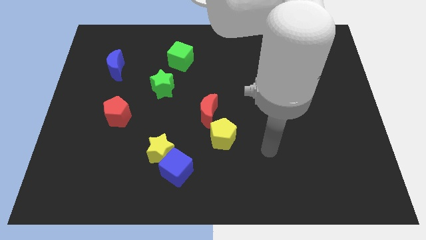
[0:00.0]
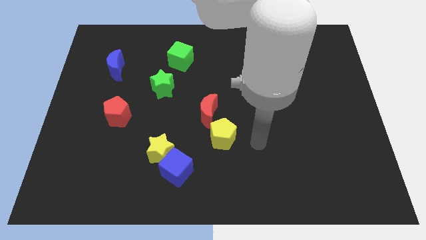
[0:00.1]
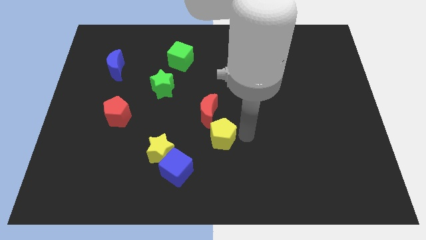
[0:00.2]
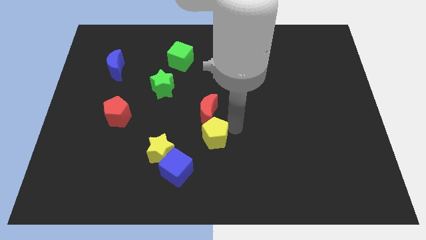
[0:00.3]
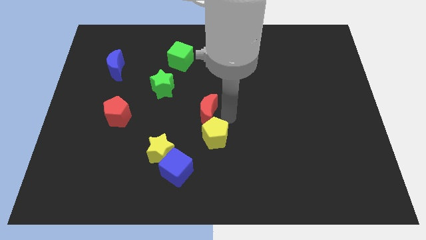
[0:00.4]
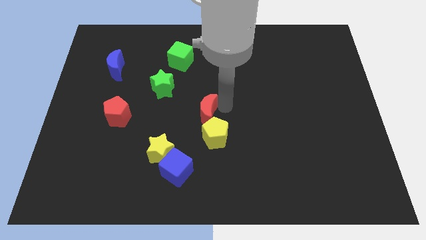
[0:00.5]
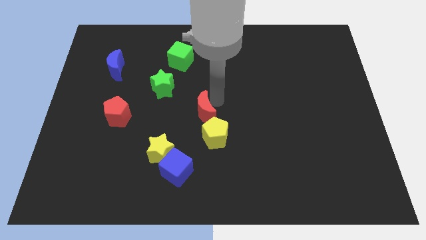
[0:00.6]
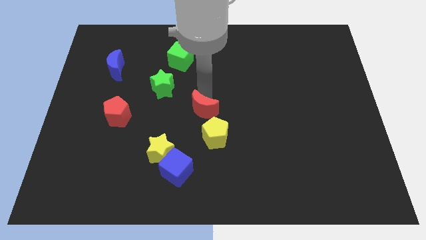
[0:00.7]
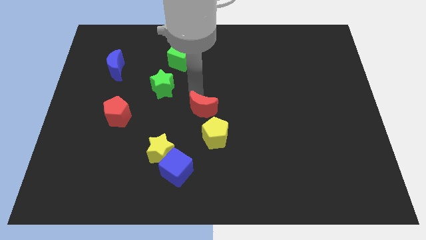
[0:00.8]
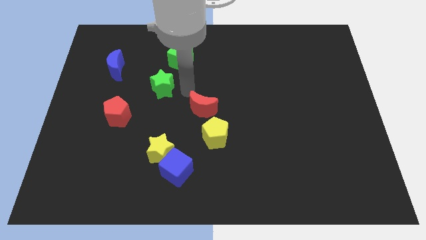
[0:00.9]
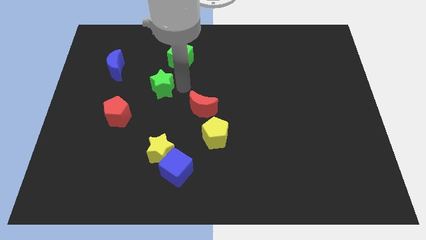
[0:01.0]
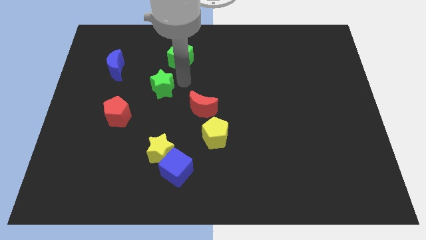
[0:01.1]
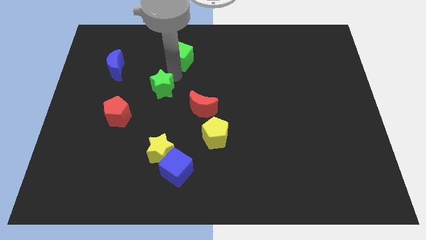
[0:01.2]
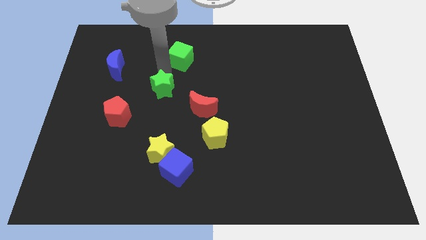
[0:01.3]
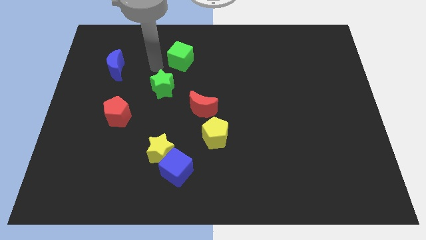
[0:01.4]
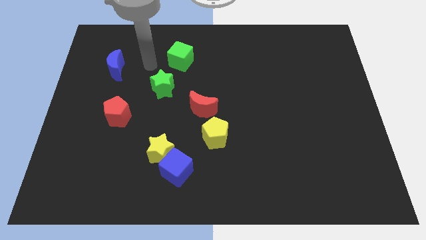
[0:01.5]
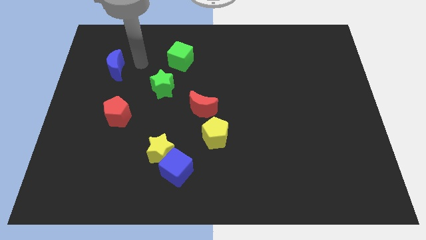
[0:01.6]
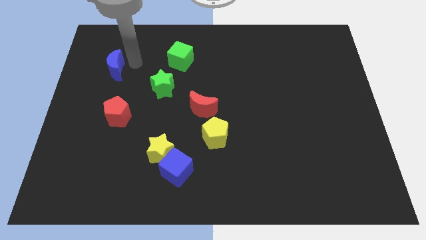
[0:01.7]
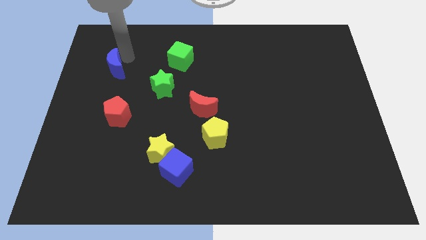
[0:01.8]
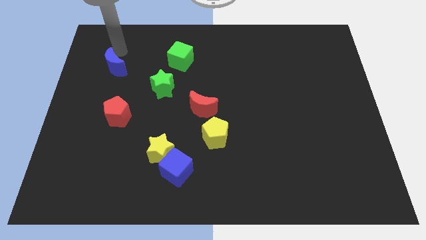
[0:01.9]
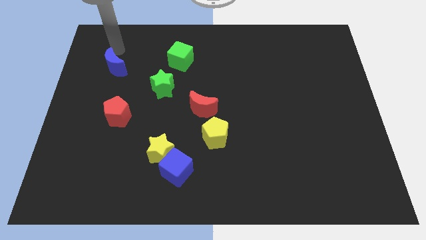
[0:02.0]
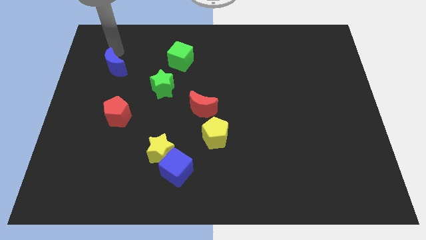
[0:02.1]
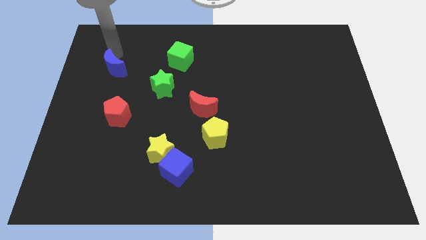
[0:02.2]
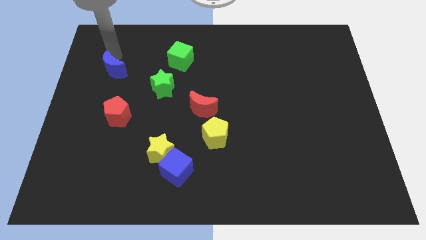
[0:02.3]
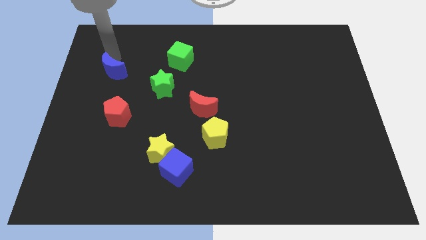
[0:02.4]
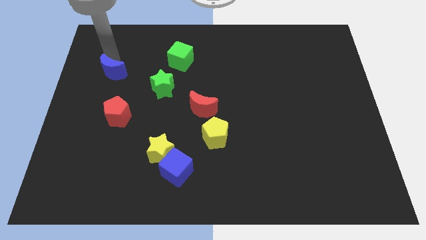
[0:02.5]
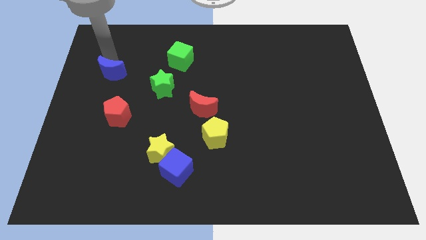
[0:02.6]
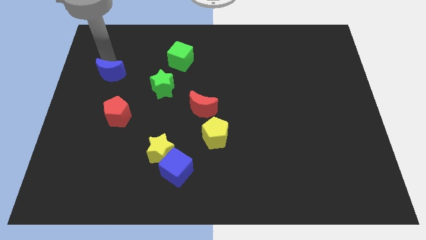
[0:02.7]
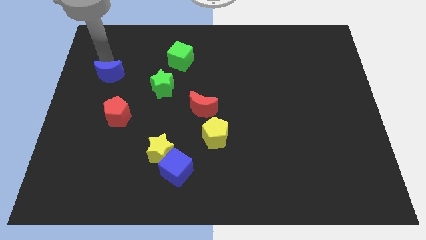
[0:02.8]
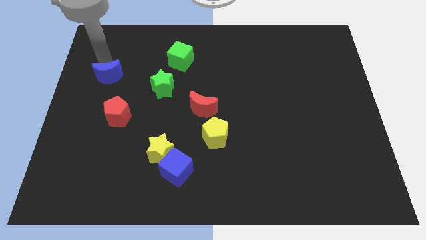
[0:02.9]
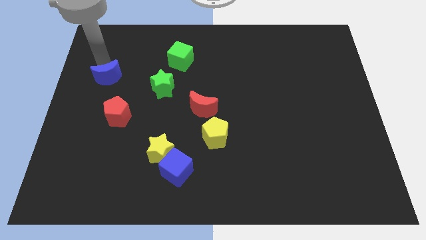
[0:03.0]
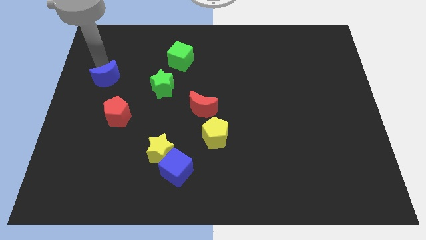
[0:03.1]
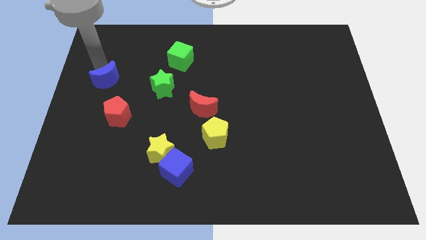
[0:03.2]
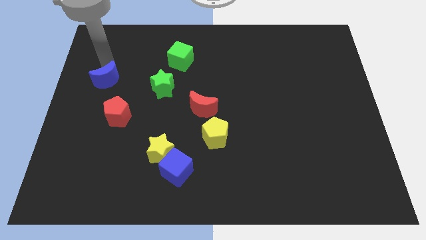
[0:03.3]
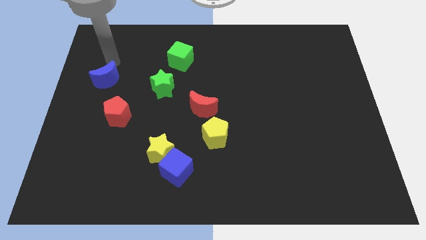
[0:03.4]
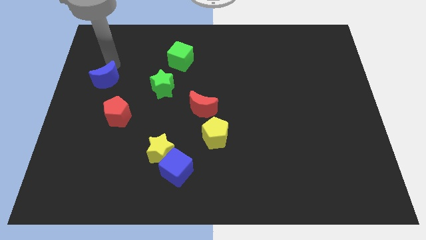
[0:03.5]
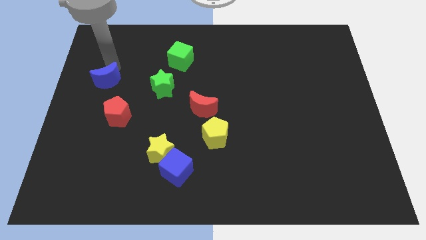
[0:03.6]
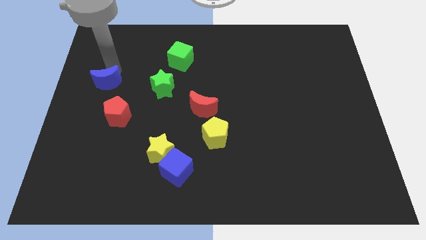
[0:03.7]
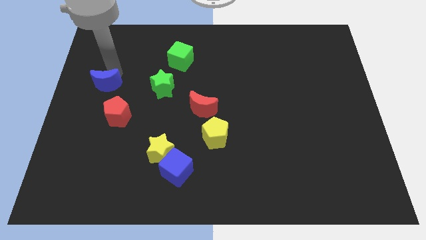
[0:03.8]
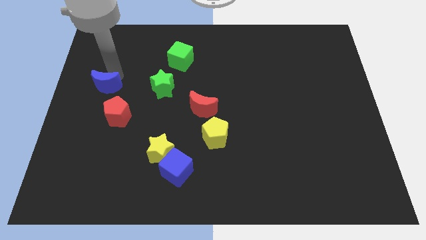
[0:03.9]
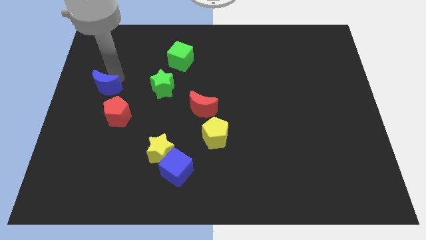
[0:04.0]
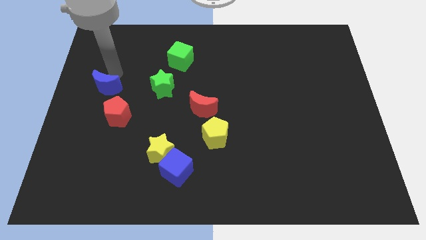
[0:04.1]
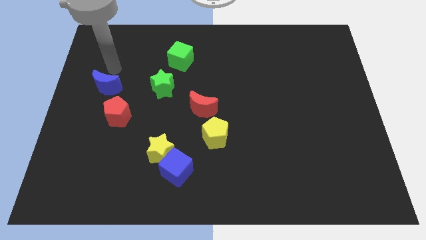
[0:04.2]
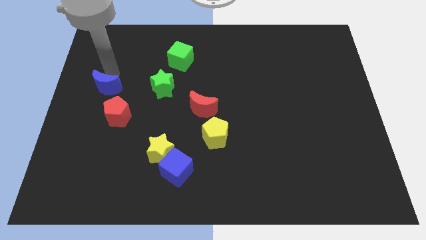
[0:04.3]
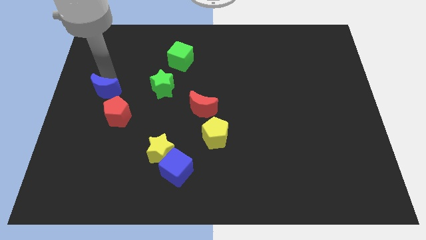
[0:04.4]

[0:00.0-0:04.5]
slightly push the blue moon downwards

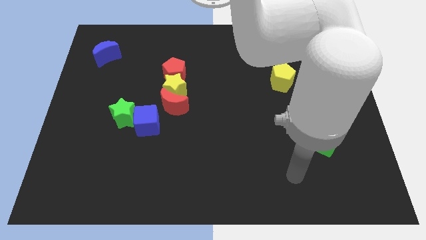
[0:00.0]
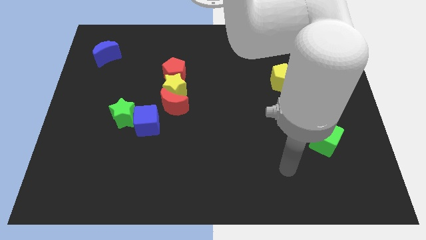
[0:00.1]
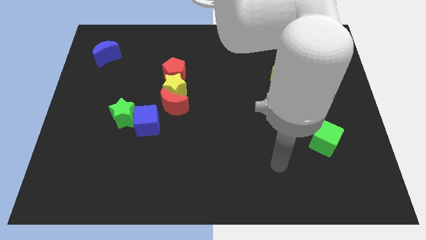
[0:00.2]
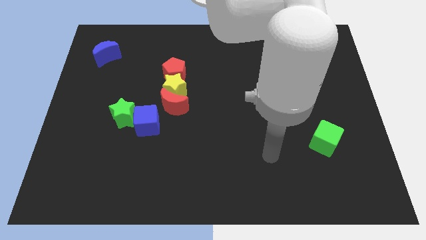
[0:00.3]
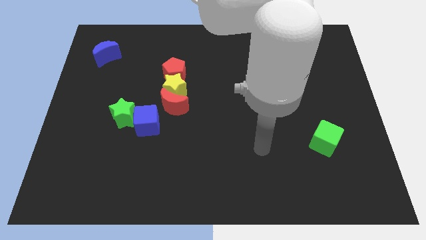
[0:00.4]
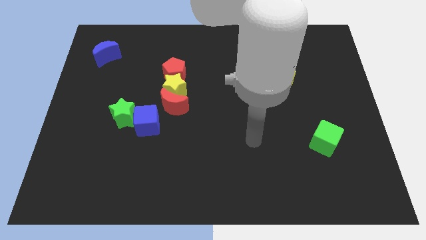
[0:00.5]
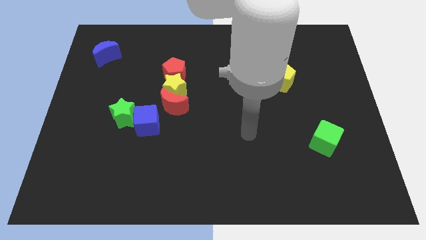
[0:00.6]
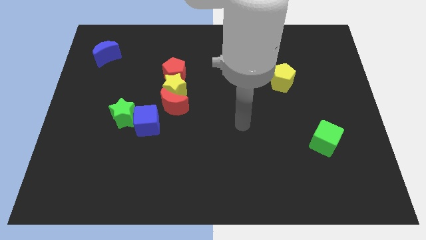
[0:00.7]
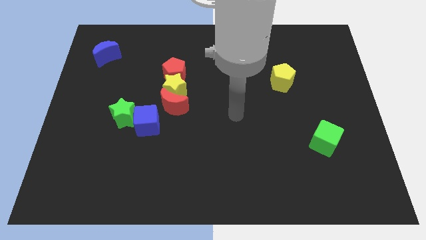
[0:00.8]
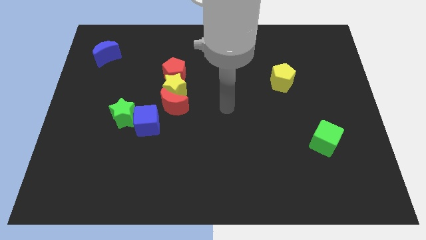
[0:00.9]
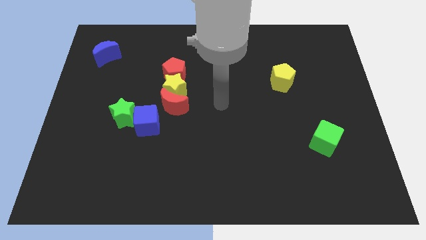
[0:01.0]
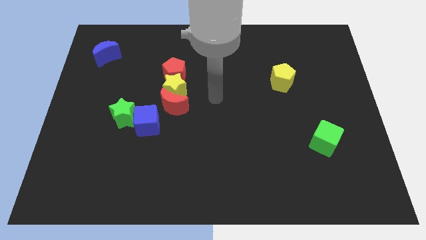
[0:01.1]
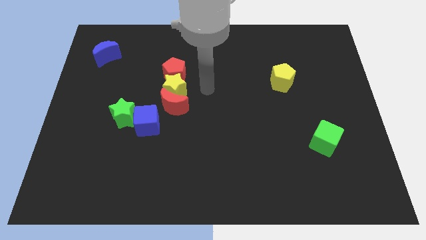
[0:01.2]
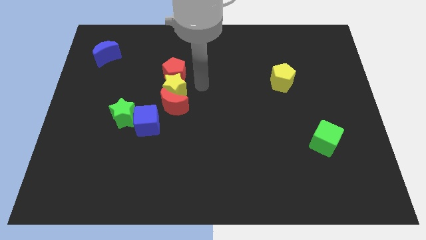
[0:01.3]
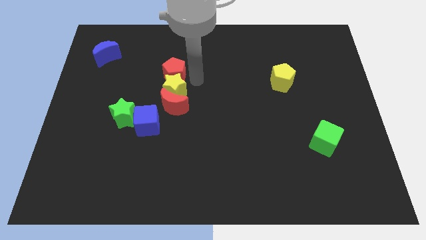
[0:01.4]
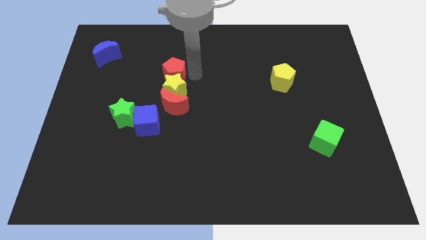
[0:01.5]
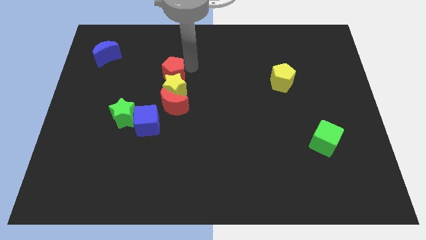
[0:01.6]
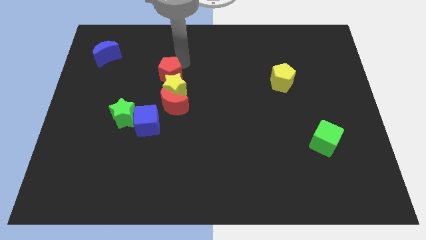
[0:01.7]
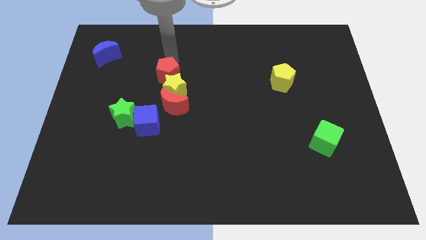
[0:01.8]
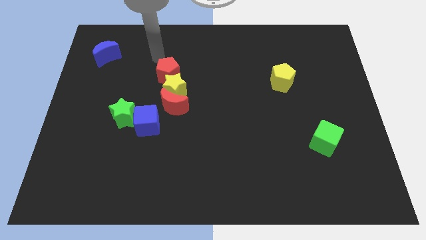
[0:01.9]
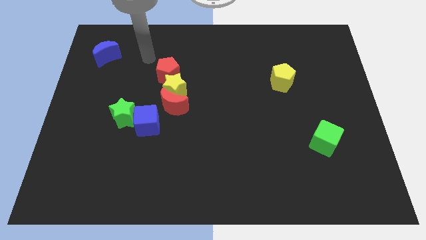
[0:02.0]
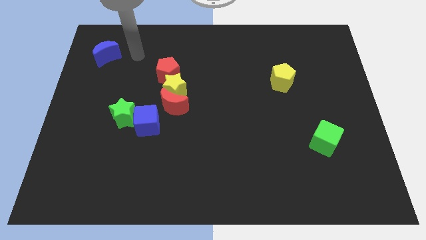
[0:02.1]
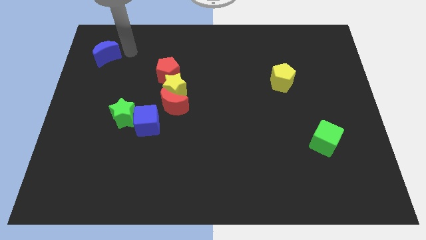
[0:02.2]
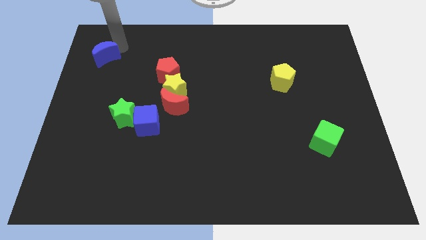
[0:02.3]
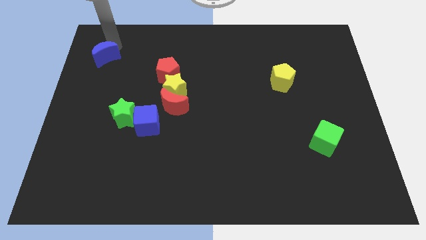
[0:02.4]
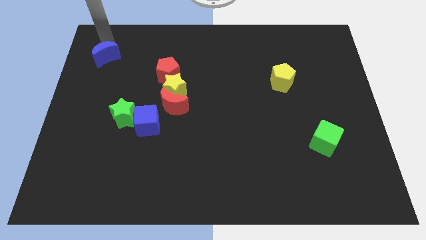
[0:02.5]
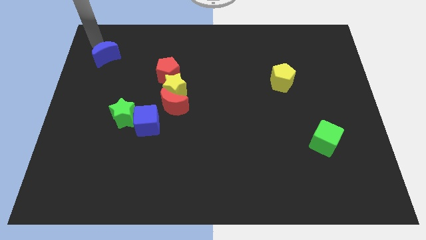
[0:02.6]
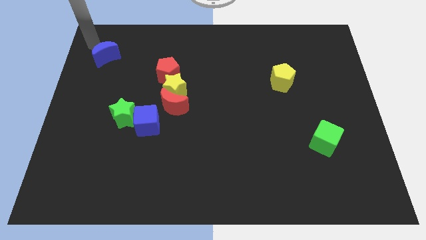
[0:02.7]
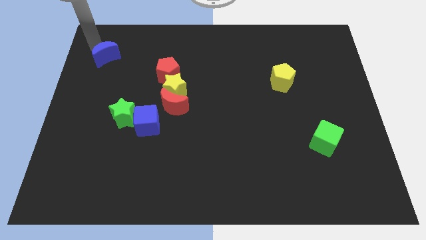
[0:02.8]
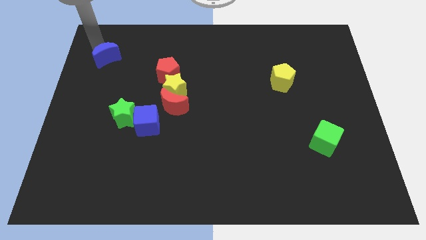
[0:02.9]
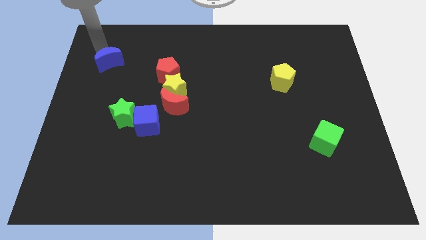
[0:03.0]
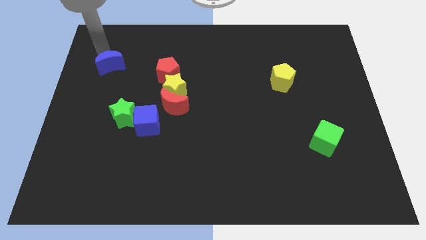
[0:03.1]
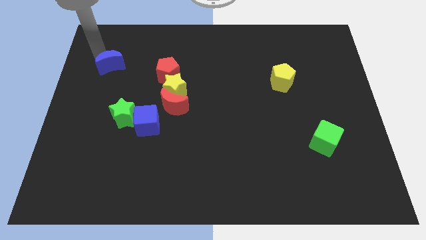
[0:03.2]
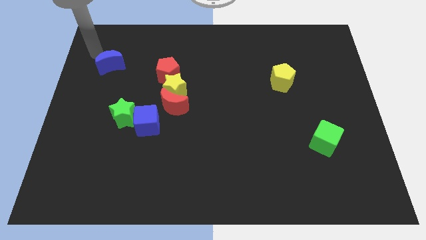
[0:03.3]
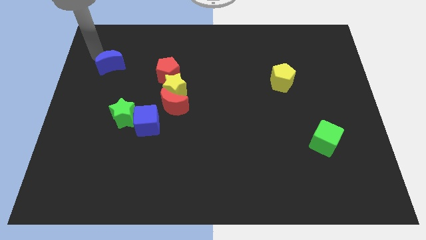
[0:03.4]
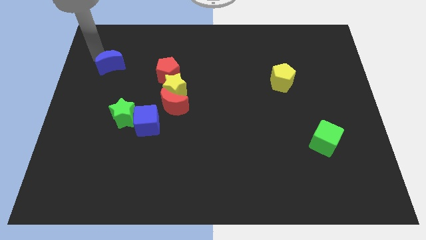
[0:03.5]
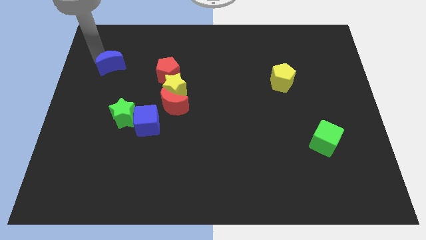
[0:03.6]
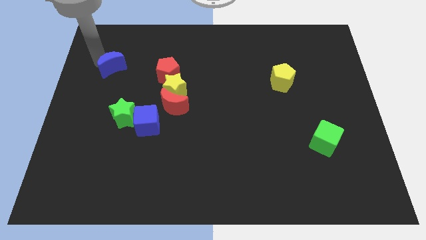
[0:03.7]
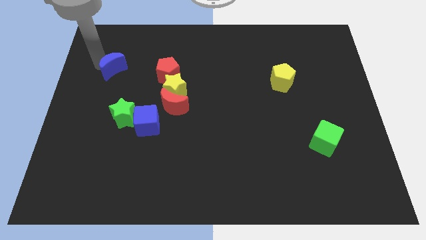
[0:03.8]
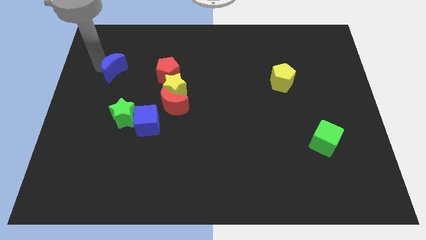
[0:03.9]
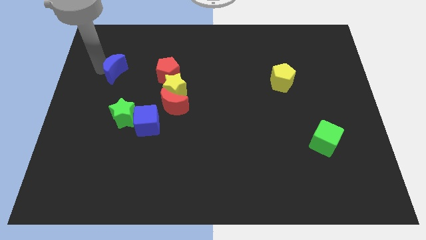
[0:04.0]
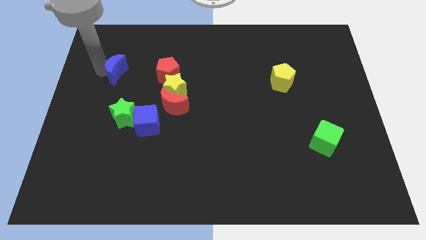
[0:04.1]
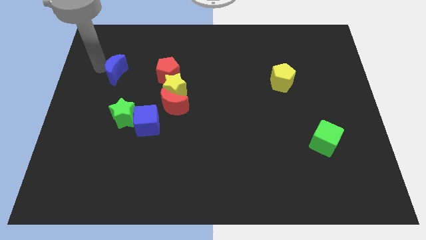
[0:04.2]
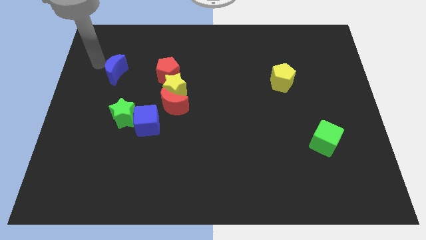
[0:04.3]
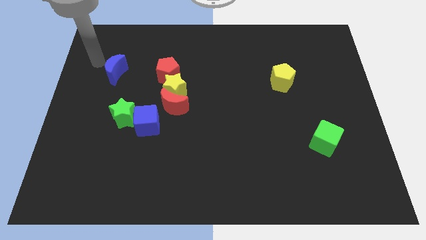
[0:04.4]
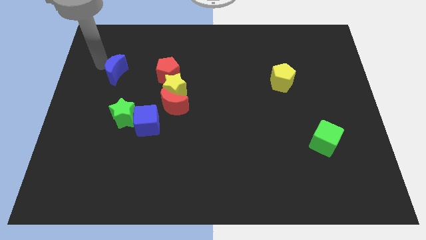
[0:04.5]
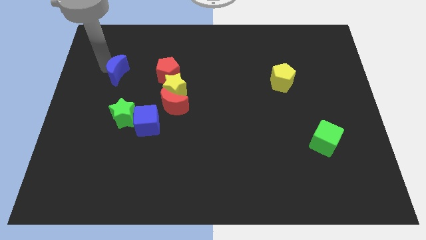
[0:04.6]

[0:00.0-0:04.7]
move the blue moon down and to the right diagonally a bit
